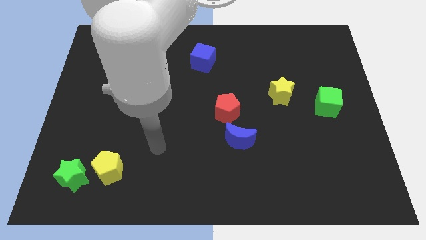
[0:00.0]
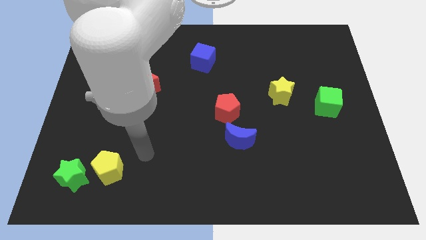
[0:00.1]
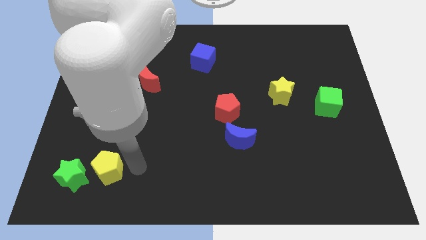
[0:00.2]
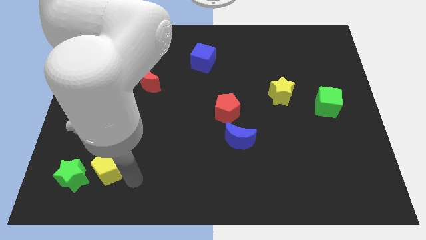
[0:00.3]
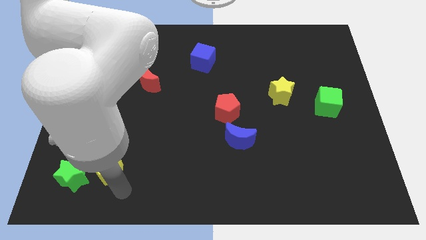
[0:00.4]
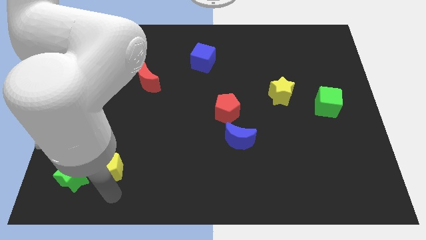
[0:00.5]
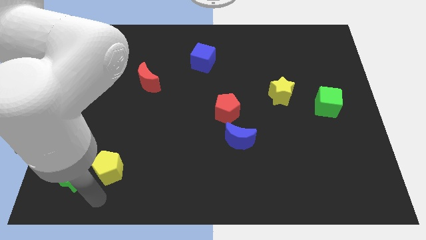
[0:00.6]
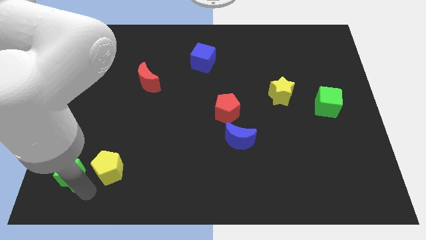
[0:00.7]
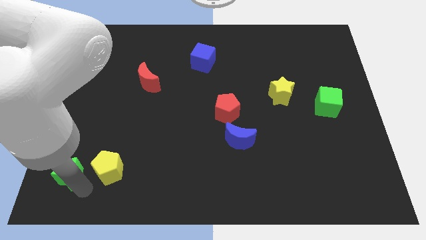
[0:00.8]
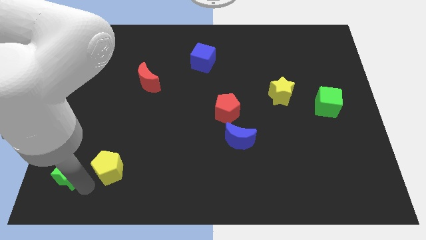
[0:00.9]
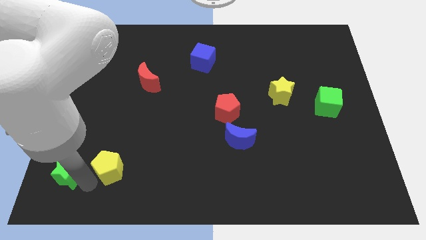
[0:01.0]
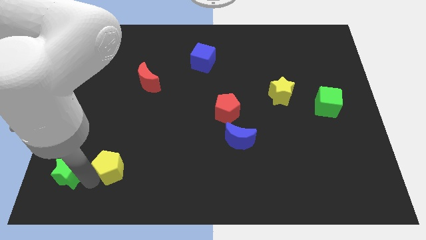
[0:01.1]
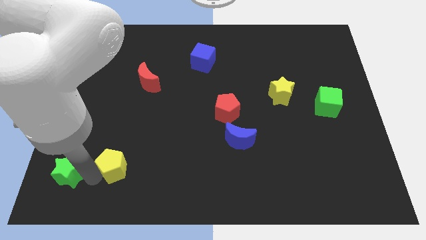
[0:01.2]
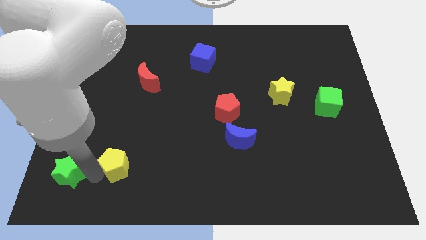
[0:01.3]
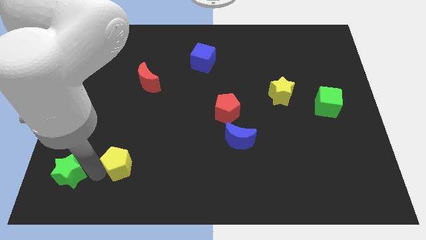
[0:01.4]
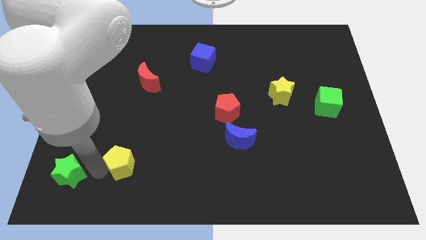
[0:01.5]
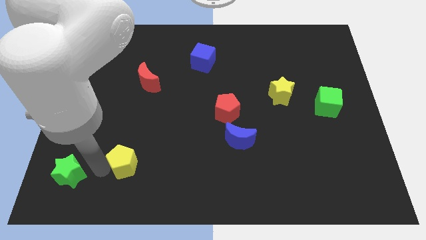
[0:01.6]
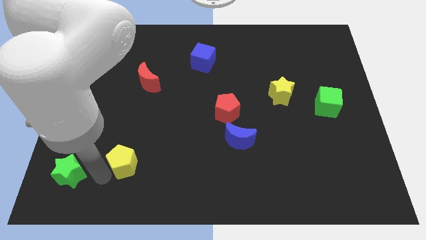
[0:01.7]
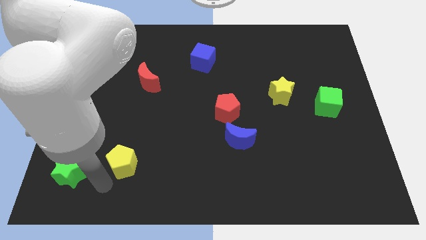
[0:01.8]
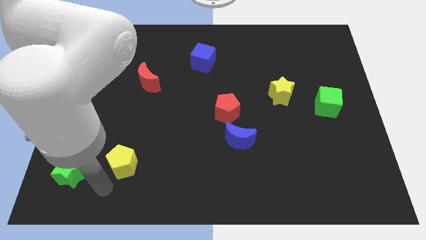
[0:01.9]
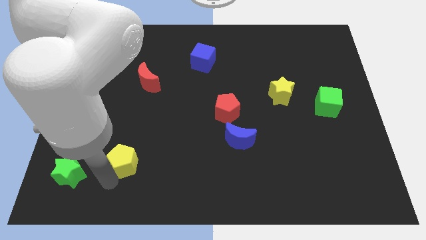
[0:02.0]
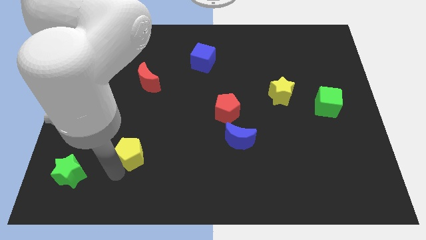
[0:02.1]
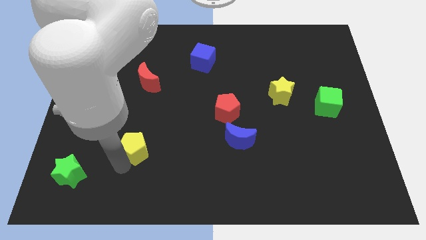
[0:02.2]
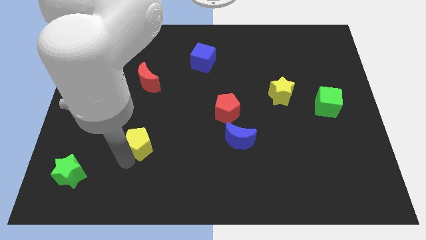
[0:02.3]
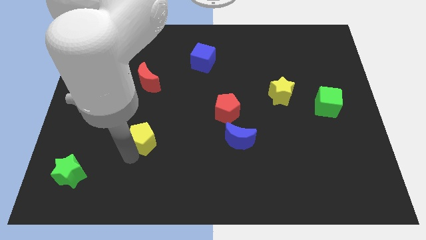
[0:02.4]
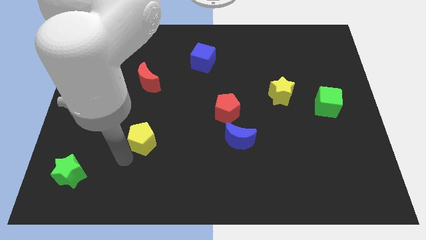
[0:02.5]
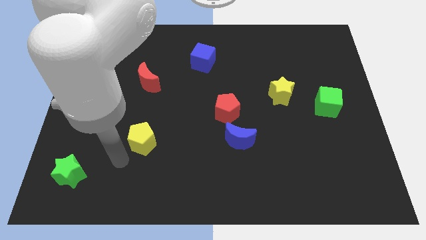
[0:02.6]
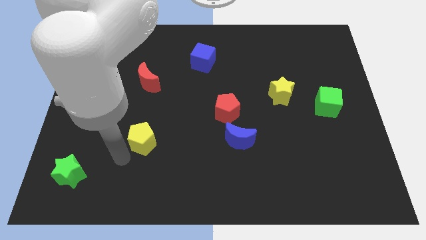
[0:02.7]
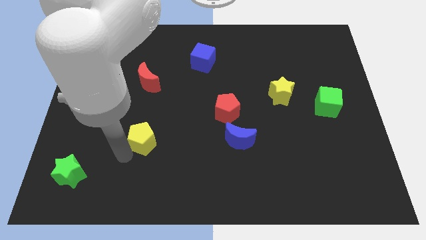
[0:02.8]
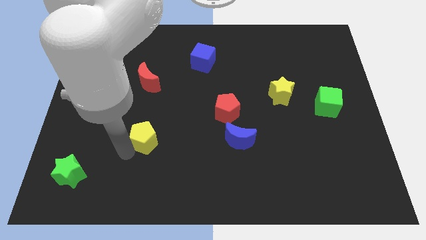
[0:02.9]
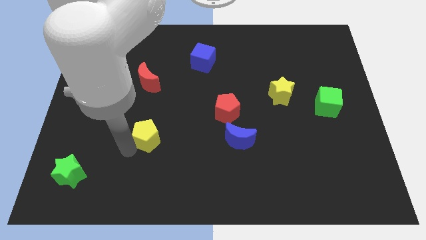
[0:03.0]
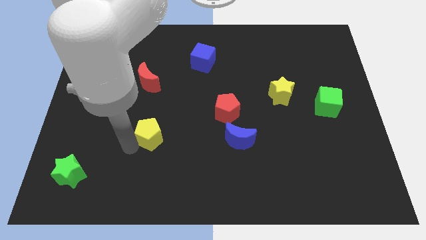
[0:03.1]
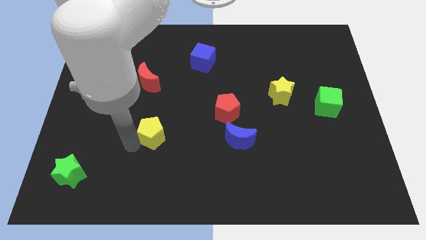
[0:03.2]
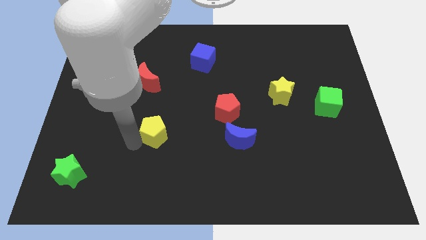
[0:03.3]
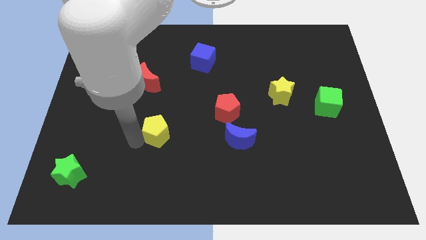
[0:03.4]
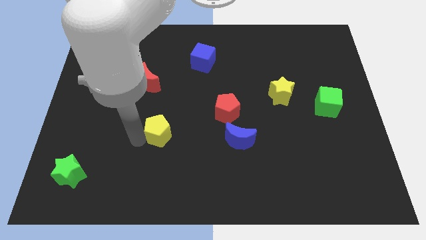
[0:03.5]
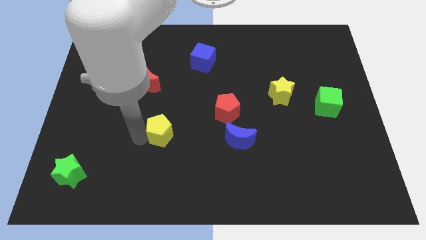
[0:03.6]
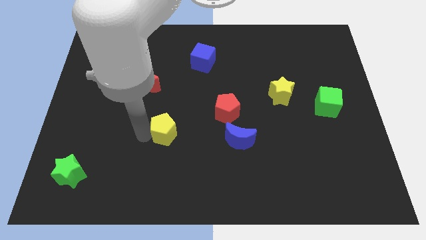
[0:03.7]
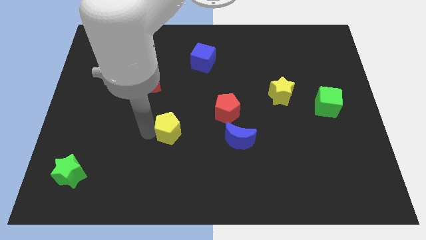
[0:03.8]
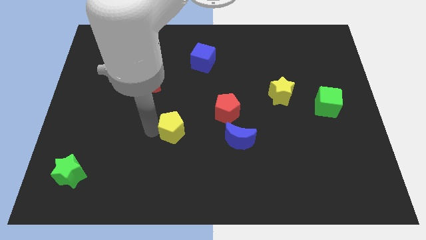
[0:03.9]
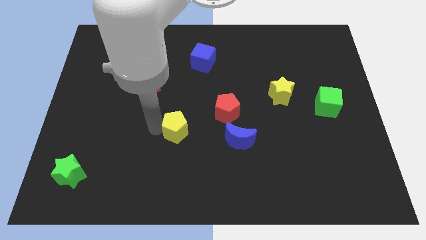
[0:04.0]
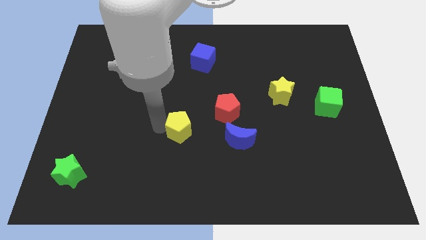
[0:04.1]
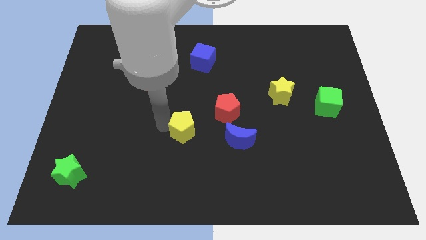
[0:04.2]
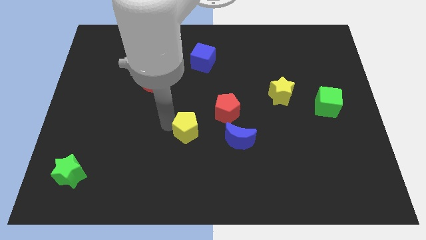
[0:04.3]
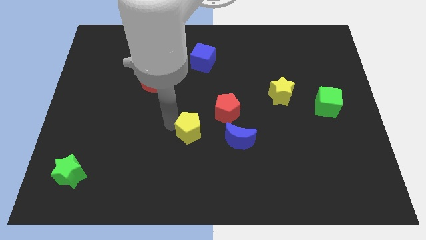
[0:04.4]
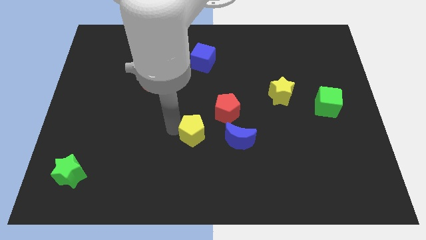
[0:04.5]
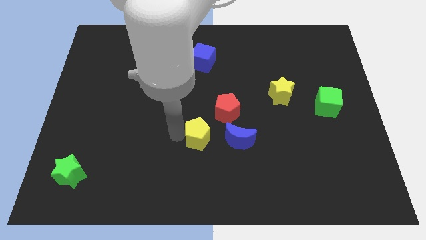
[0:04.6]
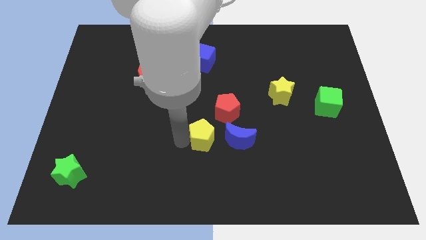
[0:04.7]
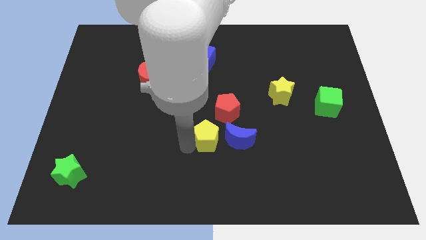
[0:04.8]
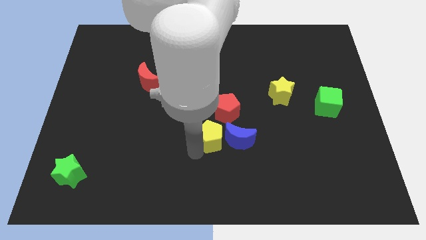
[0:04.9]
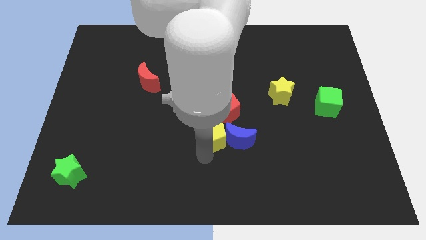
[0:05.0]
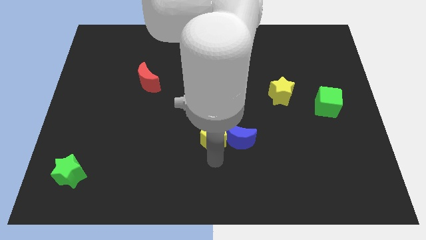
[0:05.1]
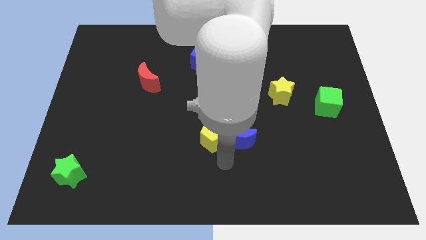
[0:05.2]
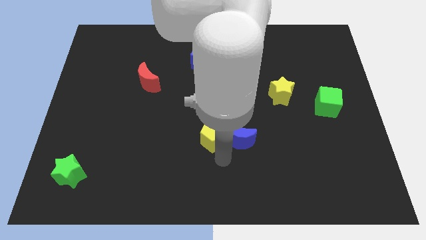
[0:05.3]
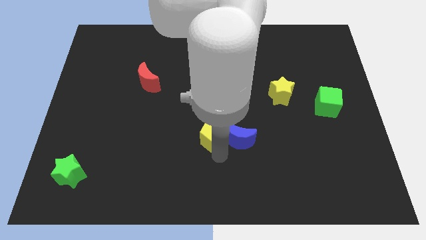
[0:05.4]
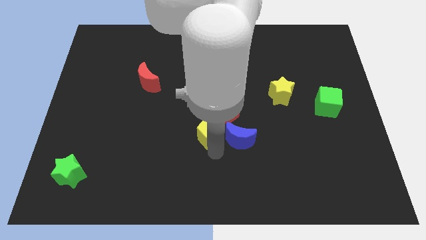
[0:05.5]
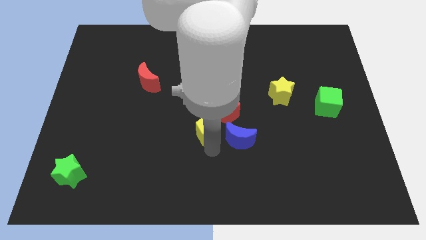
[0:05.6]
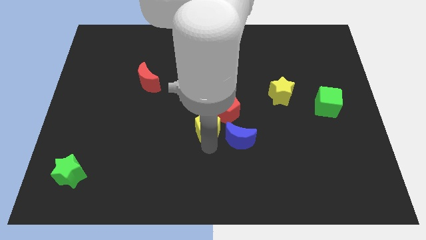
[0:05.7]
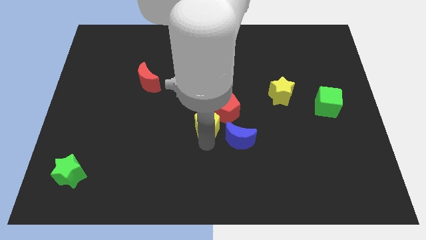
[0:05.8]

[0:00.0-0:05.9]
push the yellow pentagon upwards and then to the right

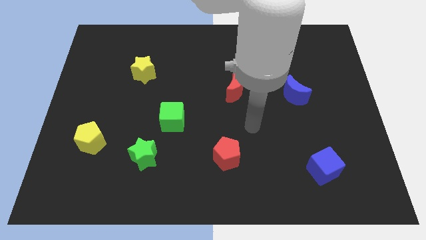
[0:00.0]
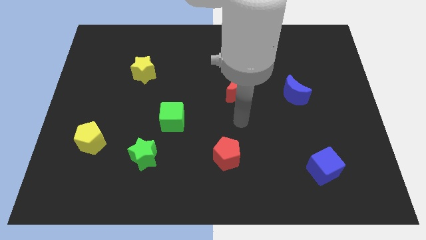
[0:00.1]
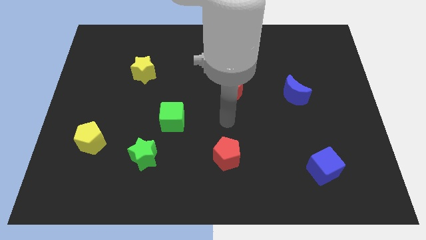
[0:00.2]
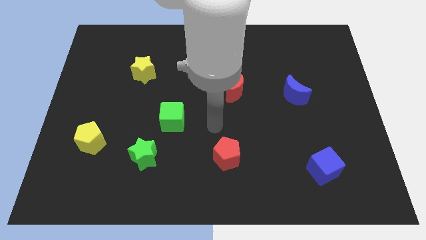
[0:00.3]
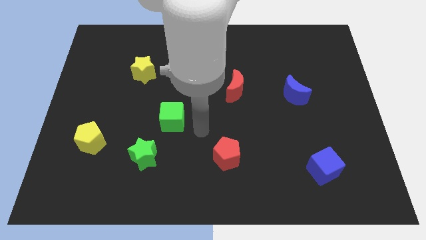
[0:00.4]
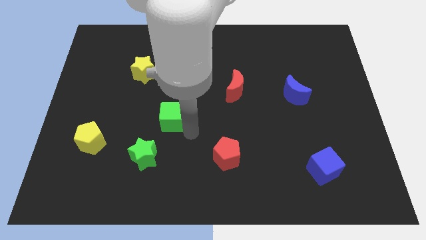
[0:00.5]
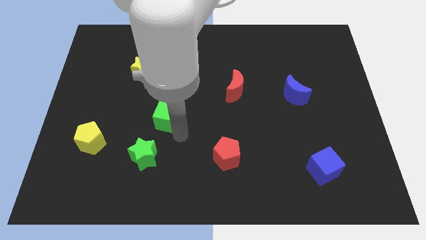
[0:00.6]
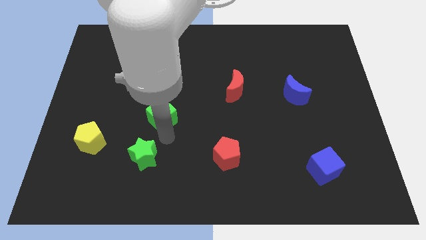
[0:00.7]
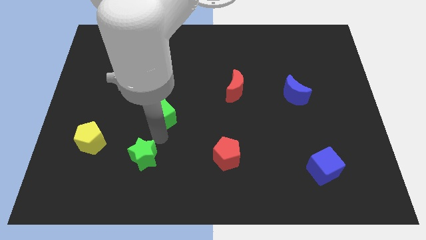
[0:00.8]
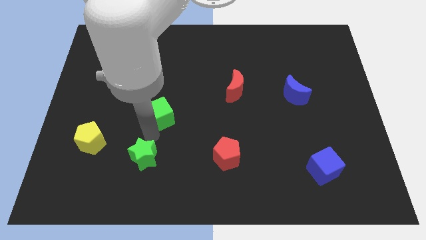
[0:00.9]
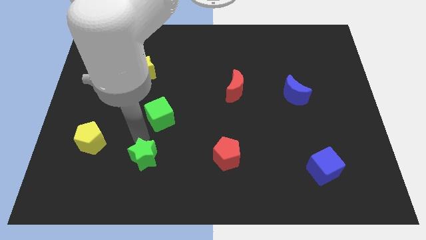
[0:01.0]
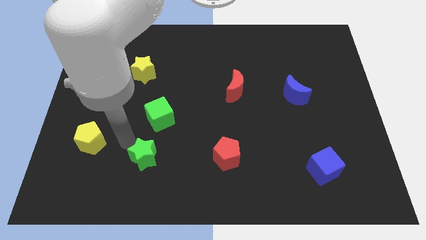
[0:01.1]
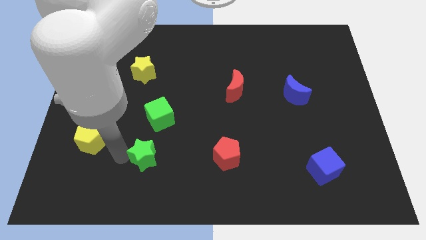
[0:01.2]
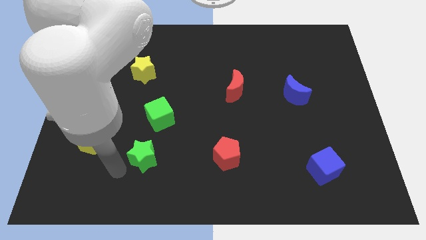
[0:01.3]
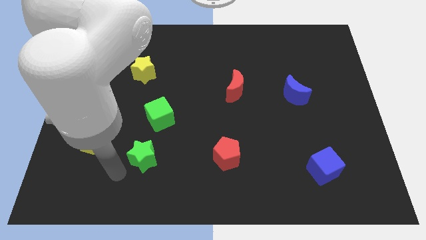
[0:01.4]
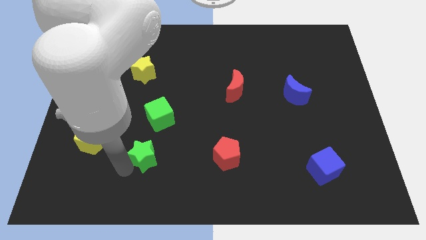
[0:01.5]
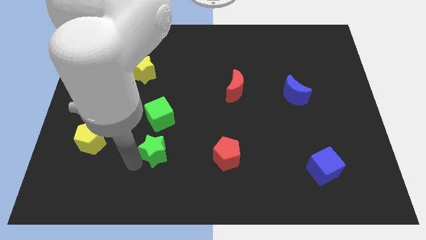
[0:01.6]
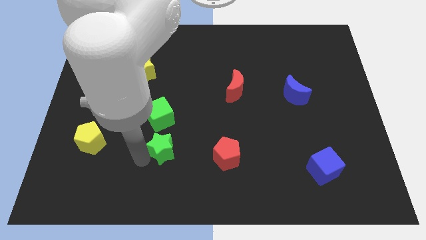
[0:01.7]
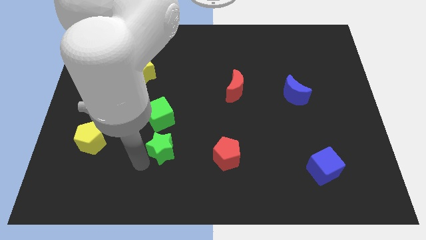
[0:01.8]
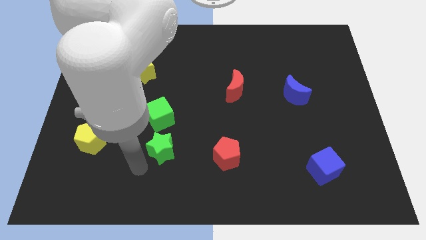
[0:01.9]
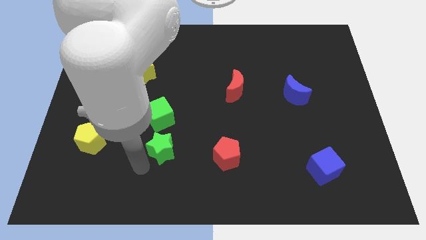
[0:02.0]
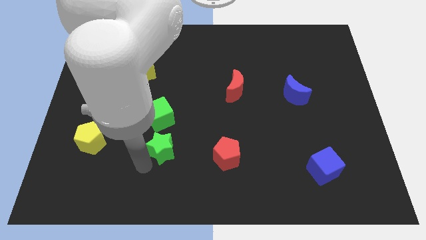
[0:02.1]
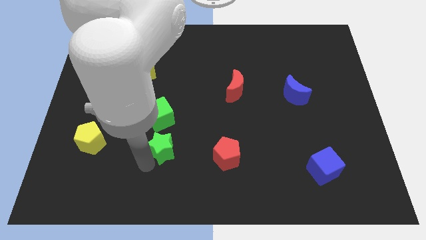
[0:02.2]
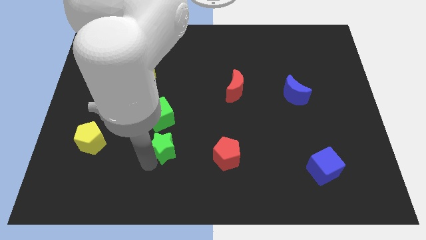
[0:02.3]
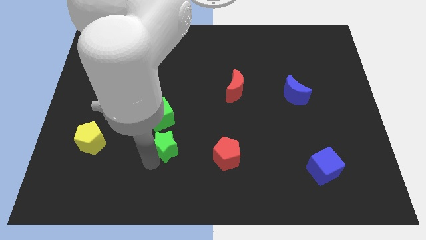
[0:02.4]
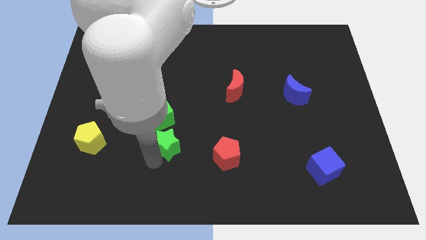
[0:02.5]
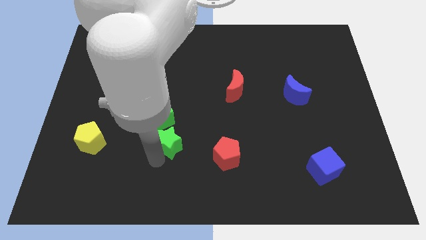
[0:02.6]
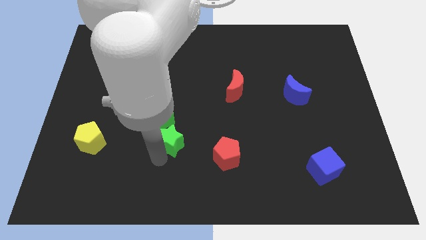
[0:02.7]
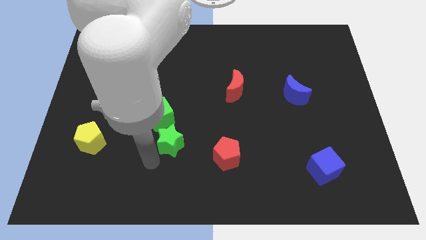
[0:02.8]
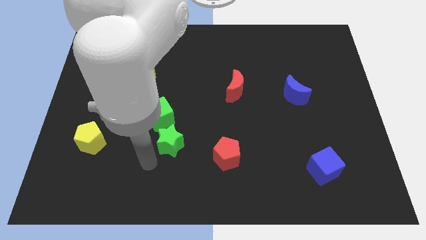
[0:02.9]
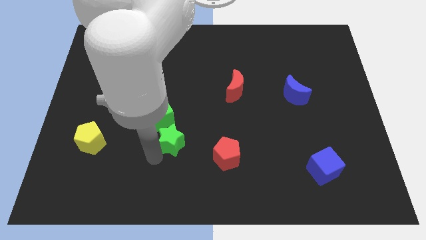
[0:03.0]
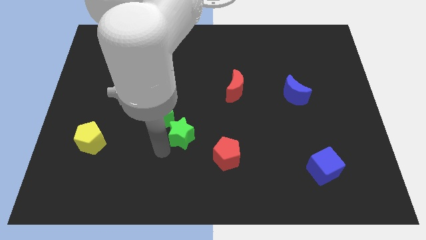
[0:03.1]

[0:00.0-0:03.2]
move the green star up and right diagonally a bit
